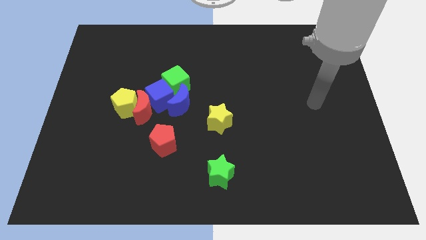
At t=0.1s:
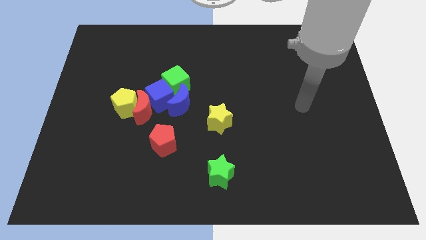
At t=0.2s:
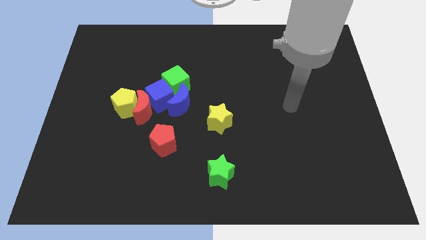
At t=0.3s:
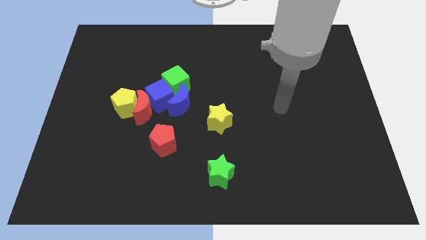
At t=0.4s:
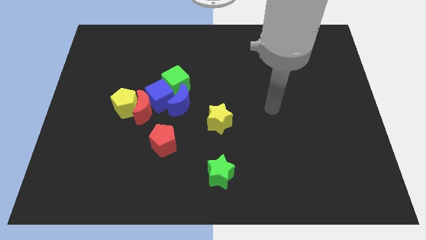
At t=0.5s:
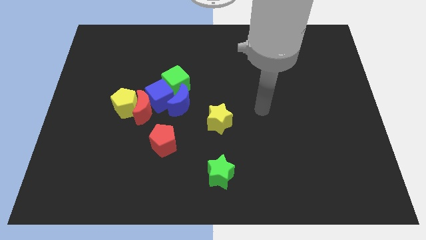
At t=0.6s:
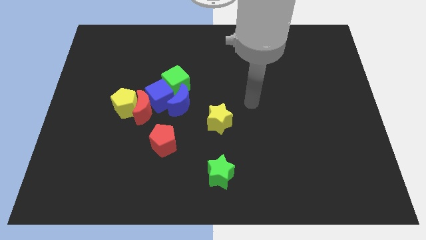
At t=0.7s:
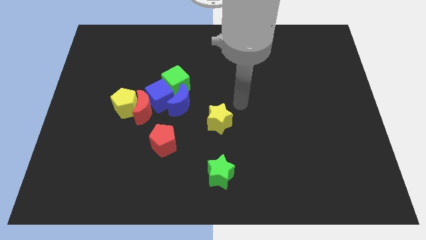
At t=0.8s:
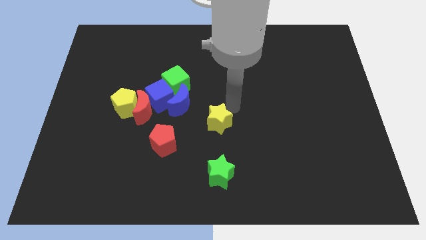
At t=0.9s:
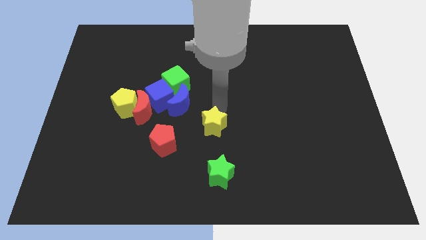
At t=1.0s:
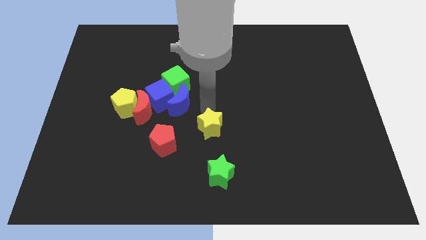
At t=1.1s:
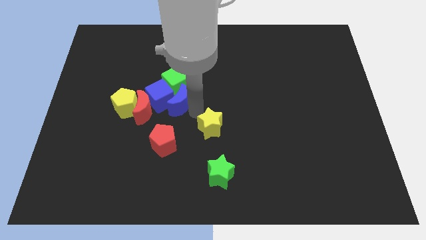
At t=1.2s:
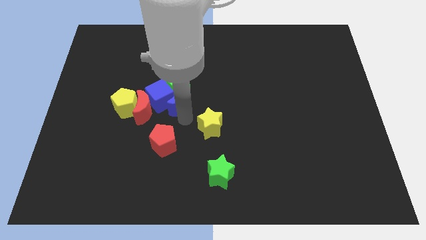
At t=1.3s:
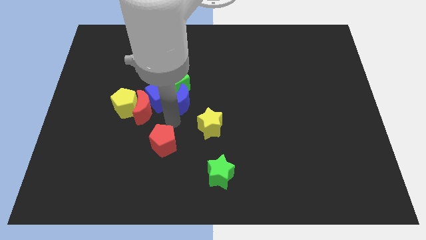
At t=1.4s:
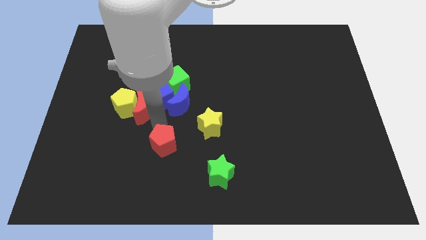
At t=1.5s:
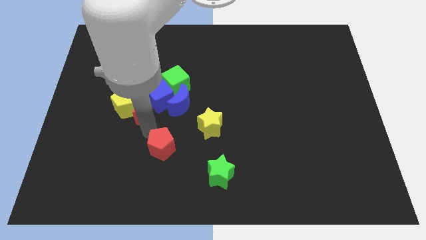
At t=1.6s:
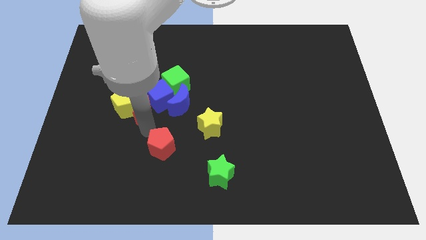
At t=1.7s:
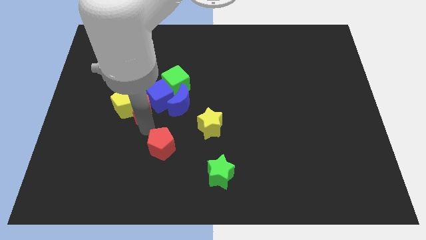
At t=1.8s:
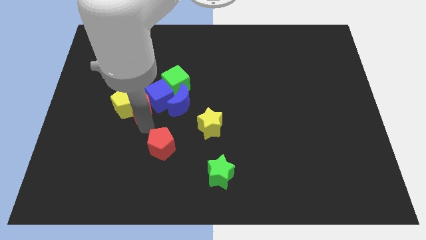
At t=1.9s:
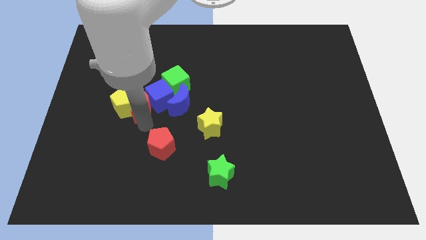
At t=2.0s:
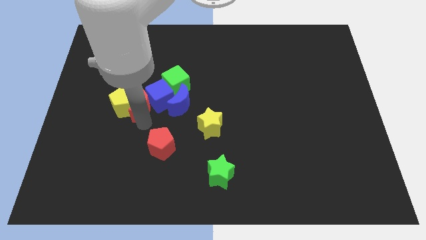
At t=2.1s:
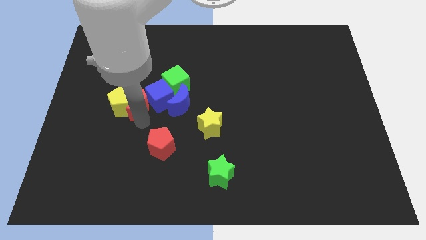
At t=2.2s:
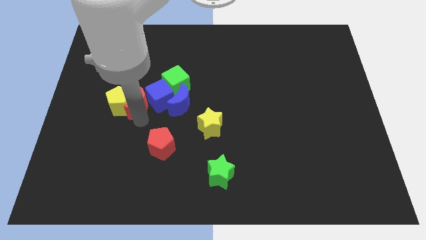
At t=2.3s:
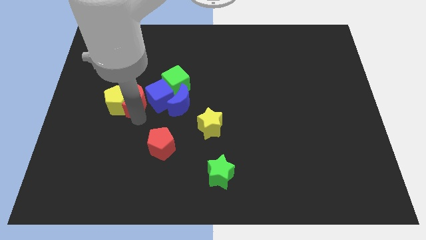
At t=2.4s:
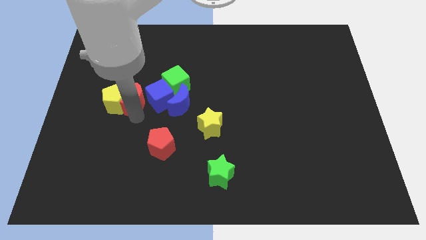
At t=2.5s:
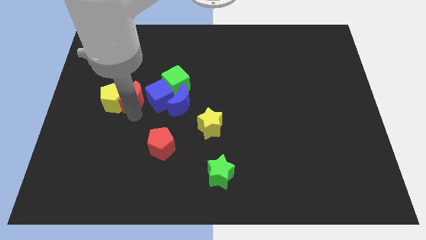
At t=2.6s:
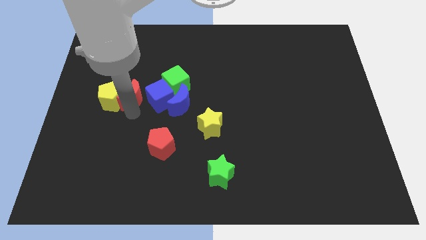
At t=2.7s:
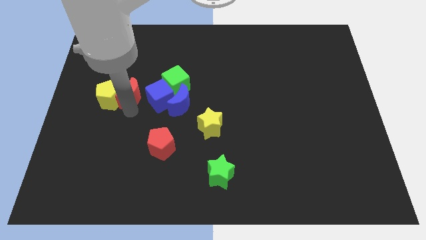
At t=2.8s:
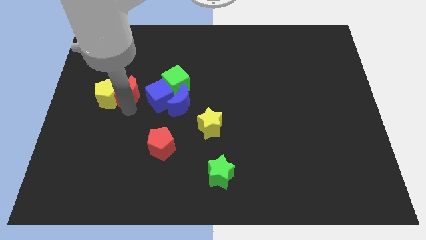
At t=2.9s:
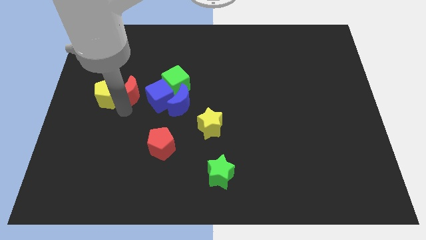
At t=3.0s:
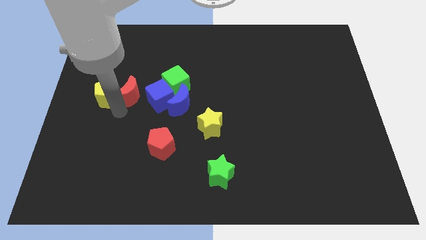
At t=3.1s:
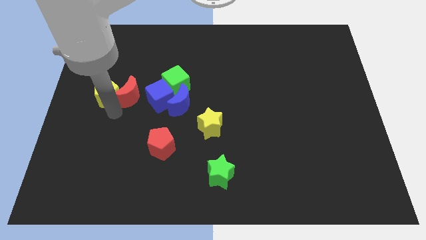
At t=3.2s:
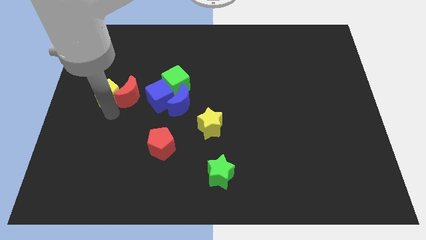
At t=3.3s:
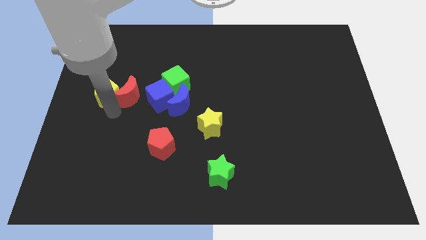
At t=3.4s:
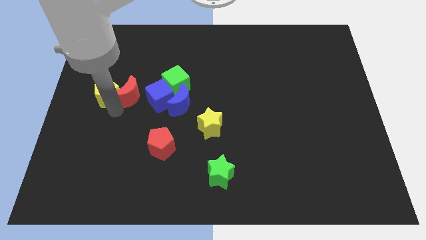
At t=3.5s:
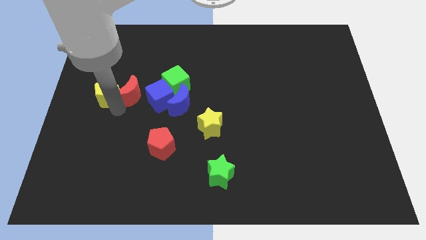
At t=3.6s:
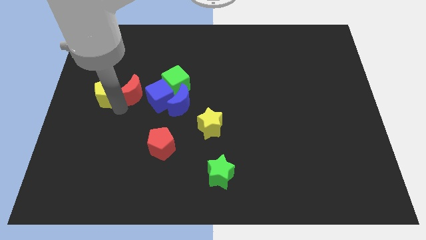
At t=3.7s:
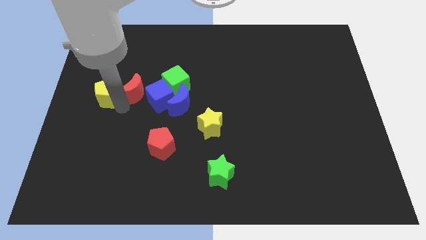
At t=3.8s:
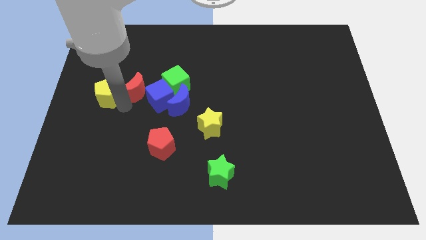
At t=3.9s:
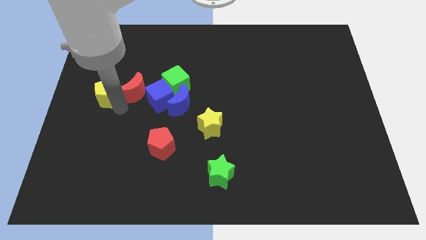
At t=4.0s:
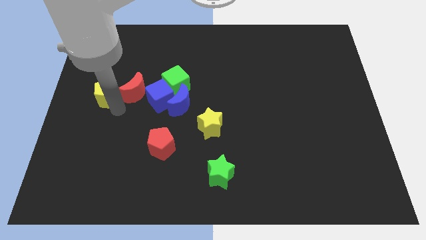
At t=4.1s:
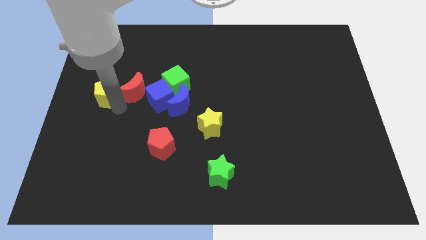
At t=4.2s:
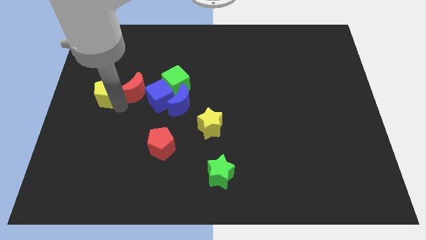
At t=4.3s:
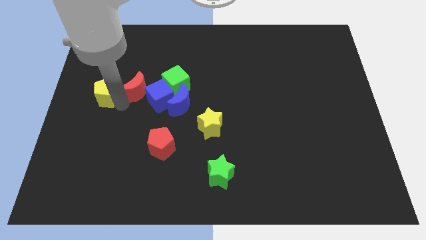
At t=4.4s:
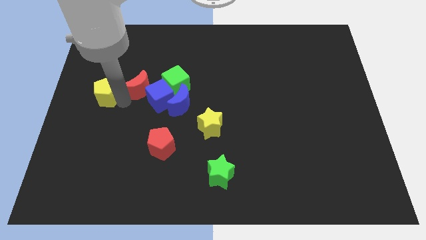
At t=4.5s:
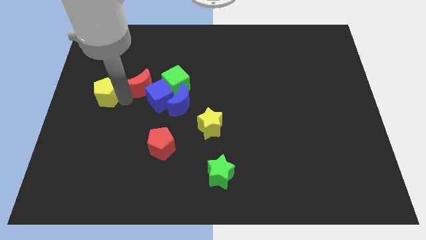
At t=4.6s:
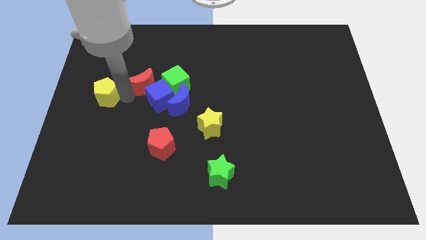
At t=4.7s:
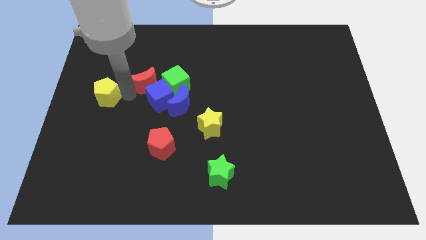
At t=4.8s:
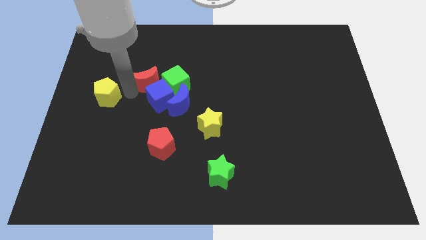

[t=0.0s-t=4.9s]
slide the red moon to the top left side of the green cube

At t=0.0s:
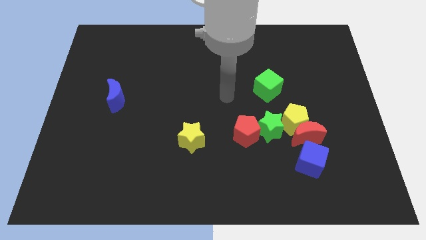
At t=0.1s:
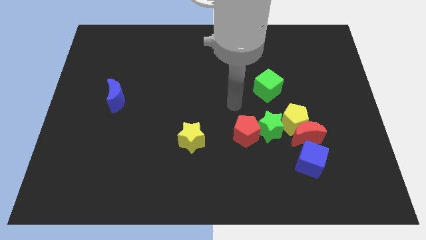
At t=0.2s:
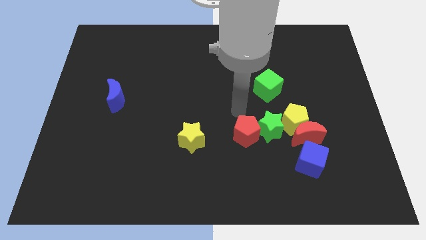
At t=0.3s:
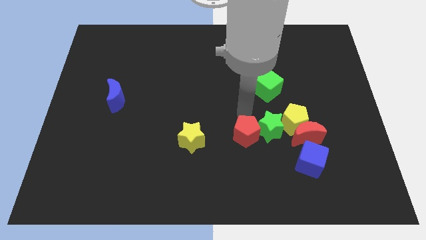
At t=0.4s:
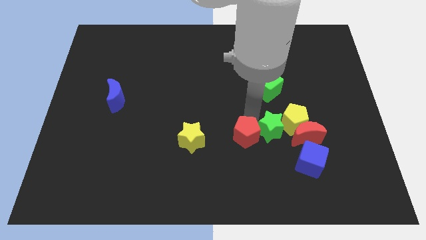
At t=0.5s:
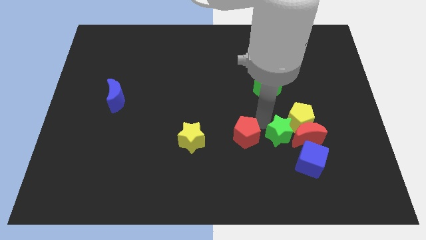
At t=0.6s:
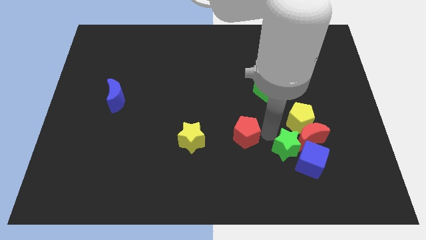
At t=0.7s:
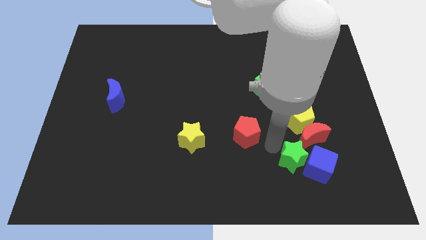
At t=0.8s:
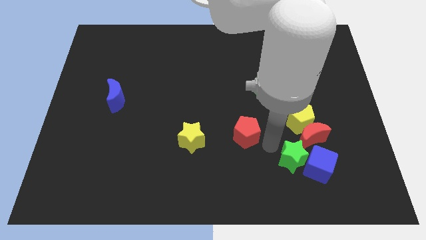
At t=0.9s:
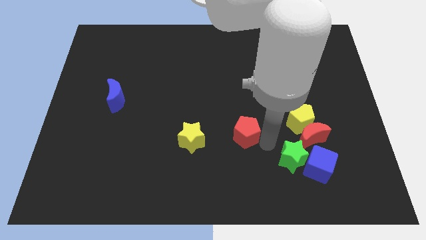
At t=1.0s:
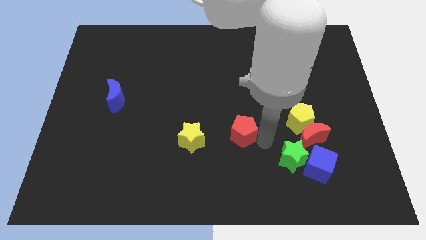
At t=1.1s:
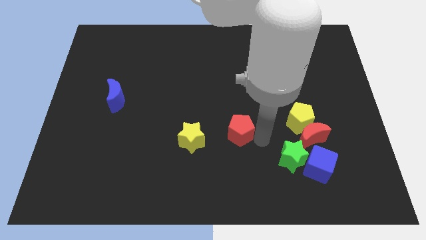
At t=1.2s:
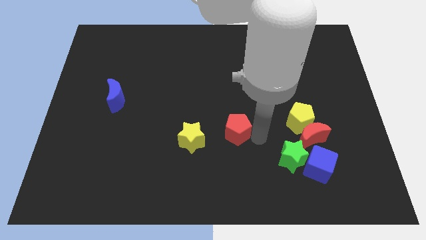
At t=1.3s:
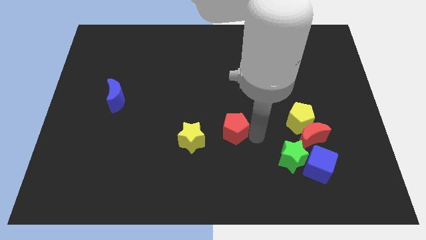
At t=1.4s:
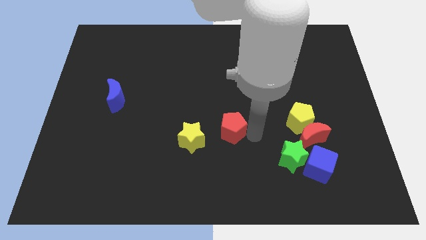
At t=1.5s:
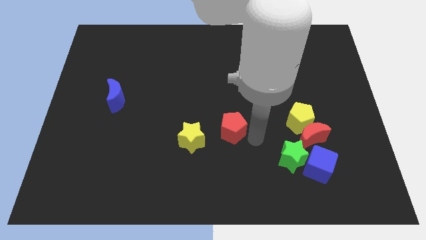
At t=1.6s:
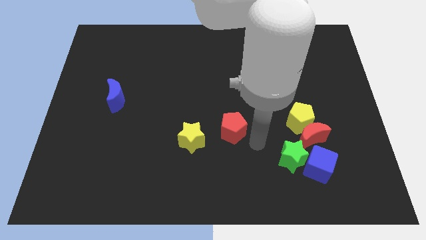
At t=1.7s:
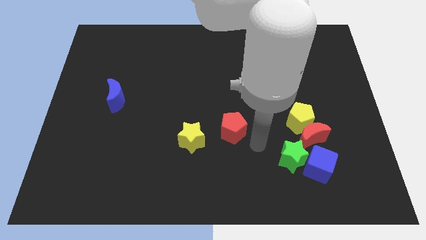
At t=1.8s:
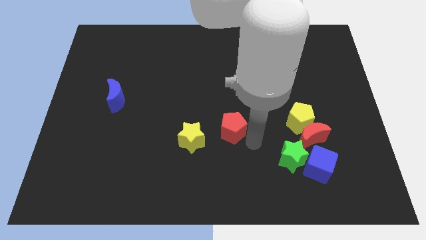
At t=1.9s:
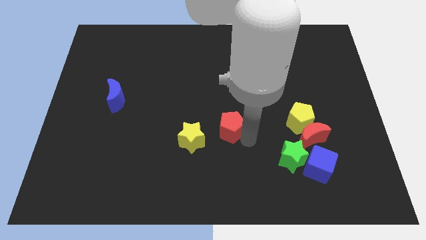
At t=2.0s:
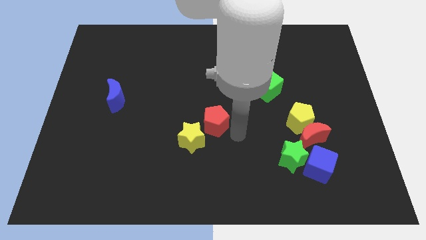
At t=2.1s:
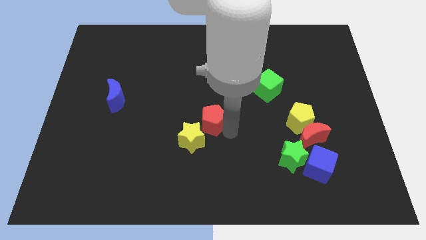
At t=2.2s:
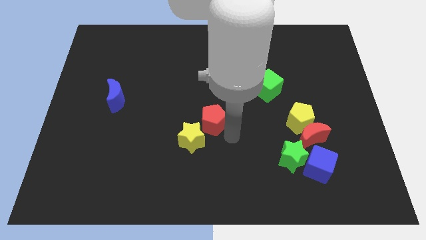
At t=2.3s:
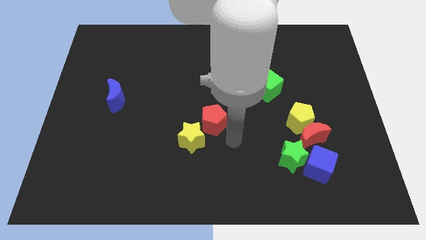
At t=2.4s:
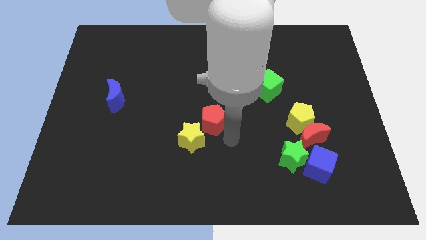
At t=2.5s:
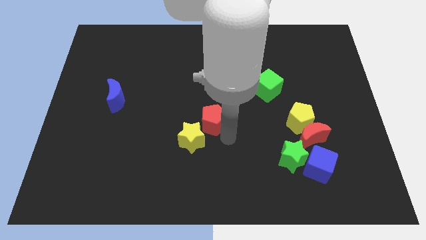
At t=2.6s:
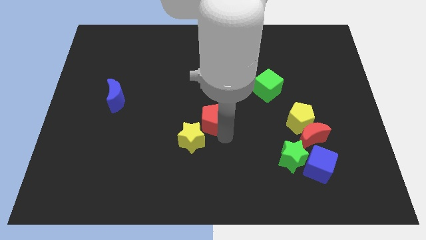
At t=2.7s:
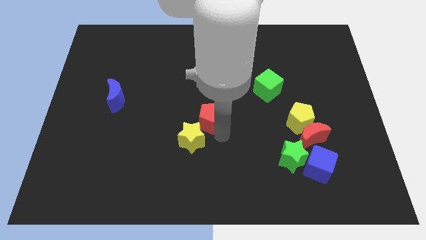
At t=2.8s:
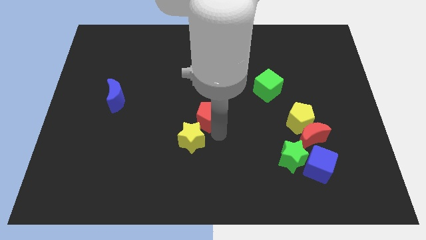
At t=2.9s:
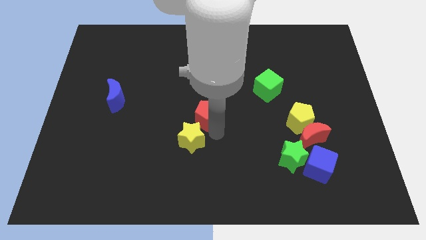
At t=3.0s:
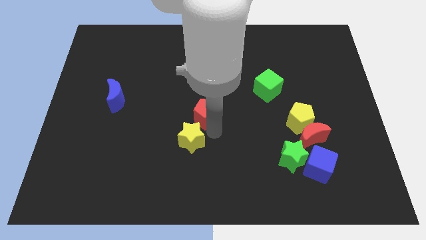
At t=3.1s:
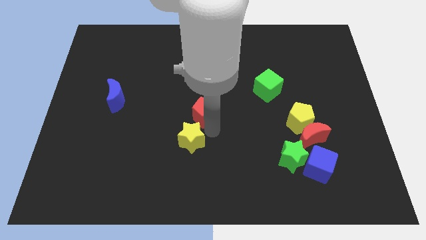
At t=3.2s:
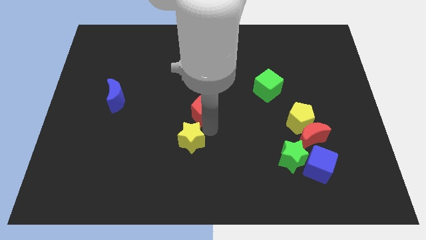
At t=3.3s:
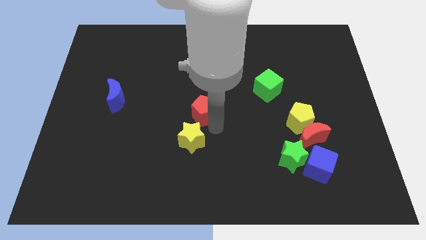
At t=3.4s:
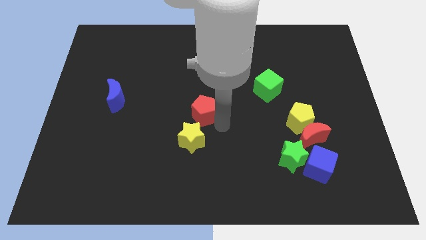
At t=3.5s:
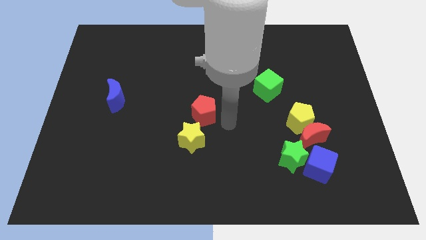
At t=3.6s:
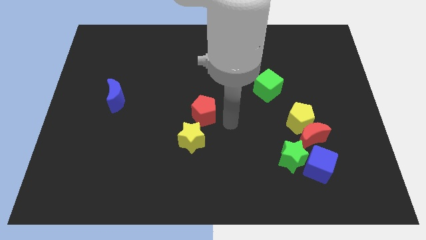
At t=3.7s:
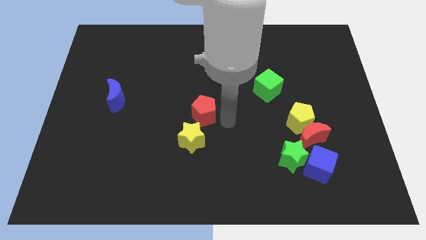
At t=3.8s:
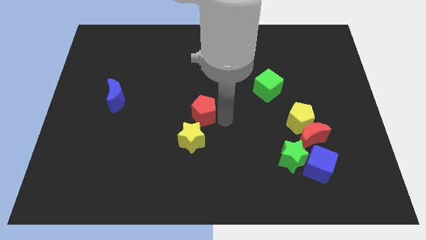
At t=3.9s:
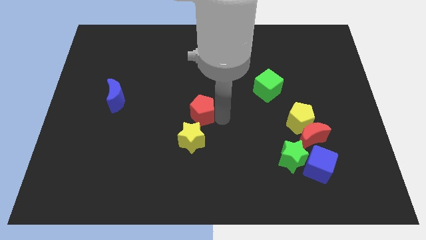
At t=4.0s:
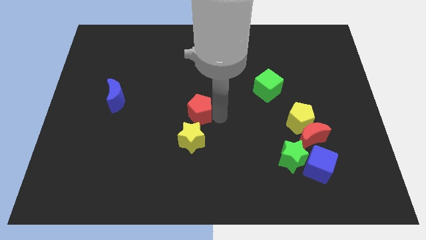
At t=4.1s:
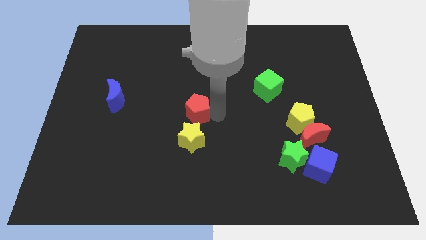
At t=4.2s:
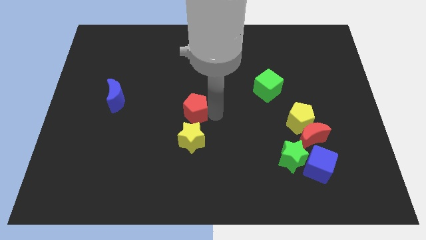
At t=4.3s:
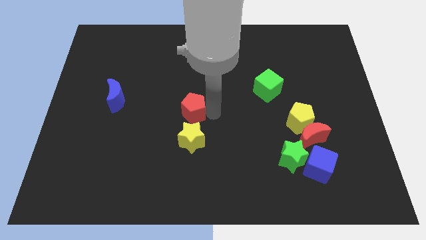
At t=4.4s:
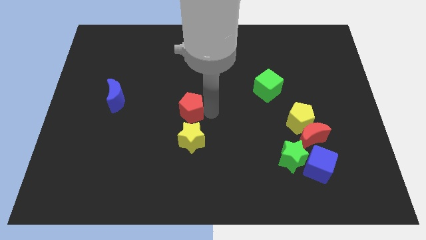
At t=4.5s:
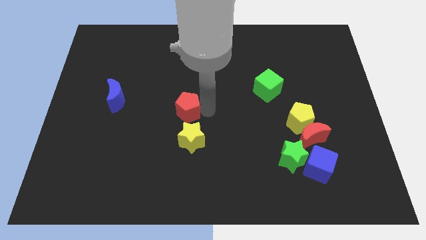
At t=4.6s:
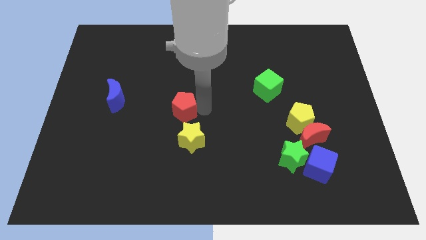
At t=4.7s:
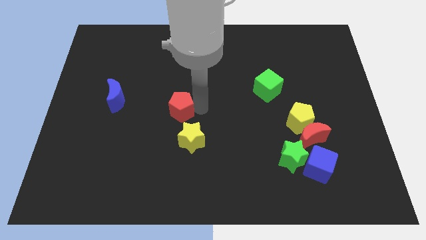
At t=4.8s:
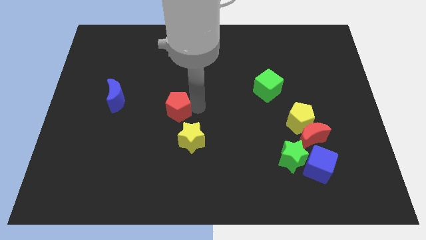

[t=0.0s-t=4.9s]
move the red pentagon right of the blue moon
